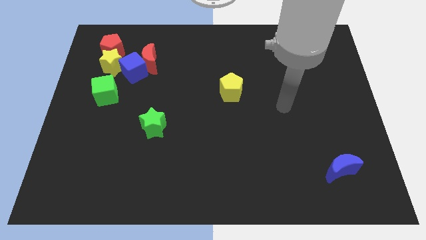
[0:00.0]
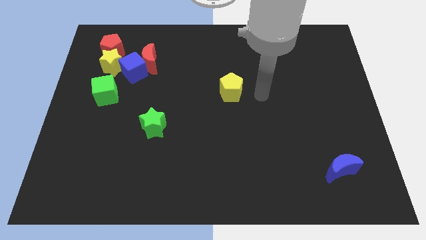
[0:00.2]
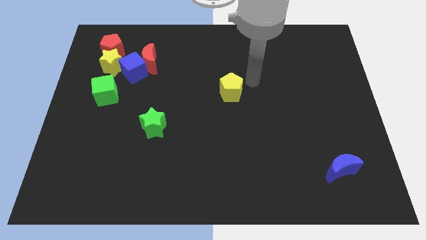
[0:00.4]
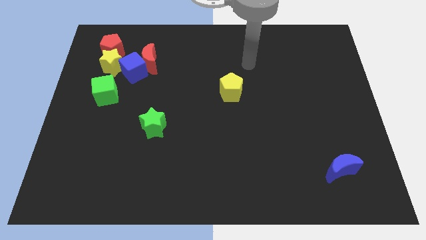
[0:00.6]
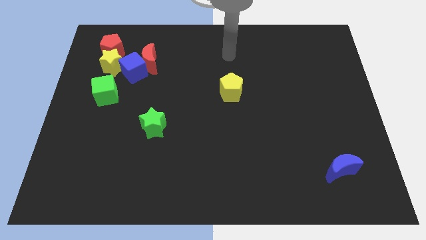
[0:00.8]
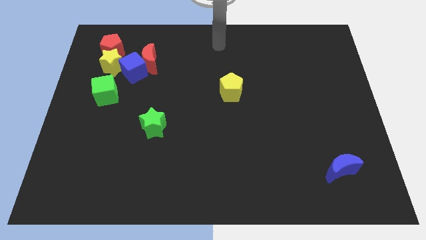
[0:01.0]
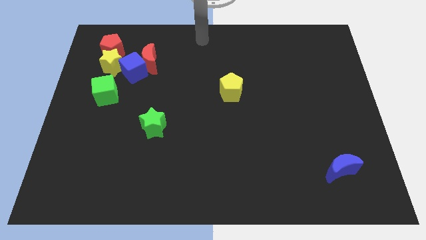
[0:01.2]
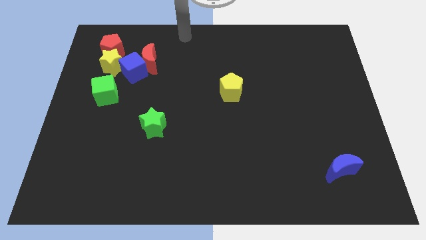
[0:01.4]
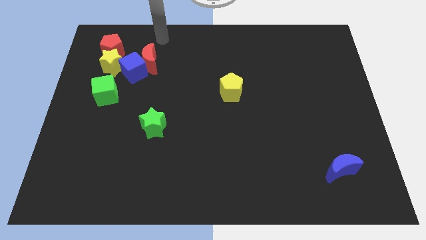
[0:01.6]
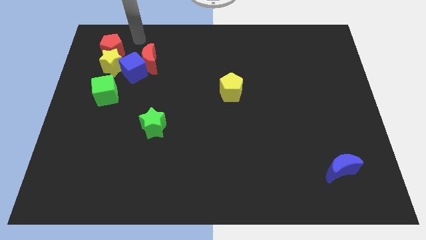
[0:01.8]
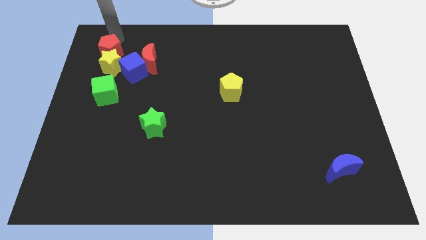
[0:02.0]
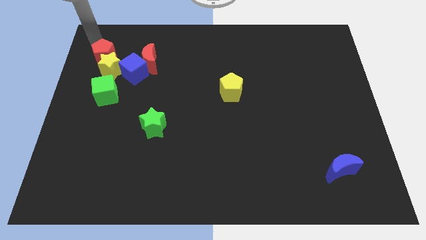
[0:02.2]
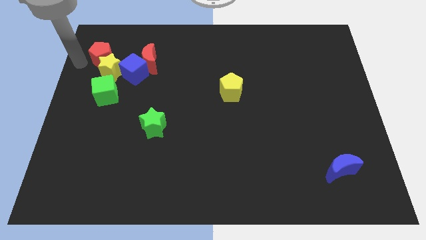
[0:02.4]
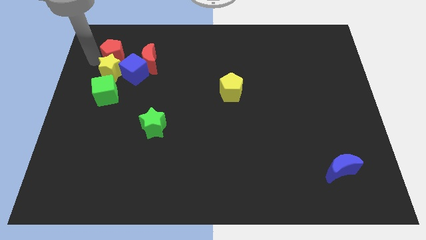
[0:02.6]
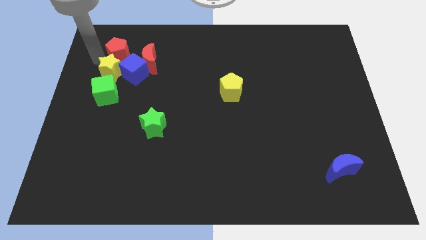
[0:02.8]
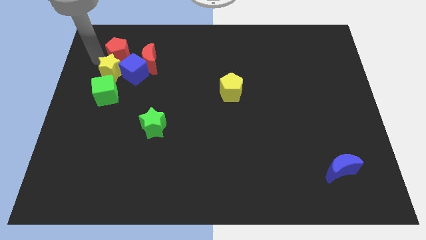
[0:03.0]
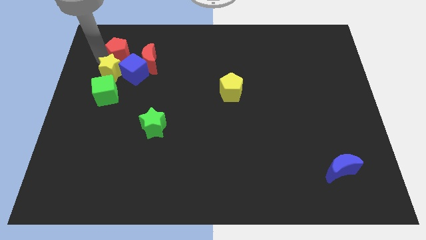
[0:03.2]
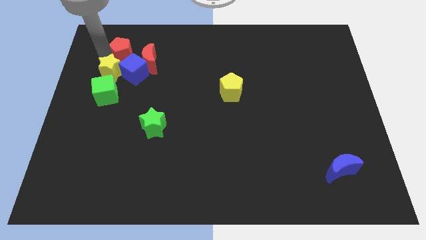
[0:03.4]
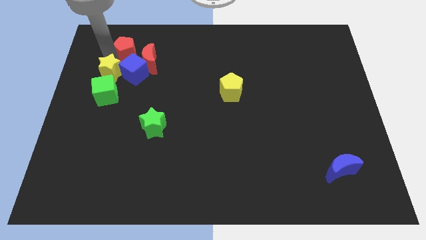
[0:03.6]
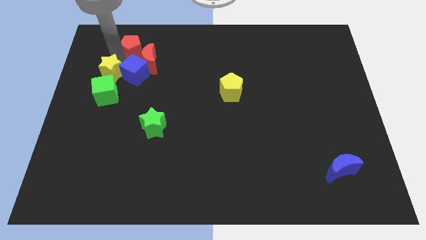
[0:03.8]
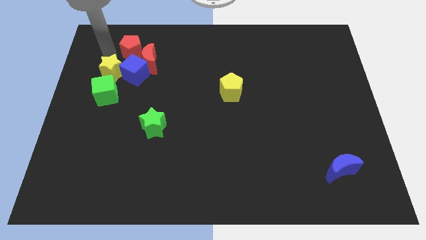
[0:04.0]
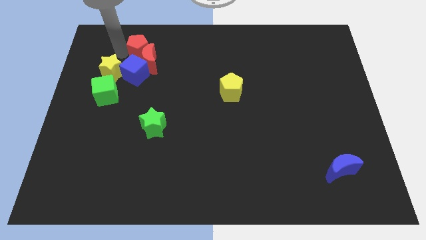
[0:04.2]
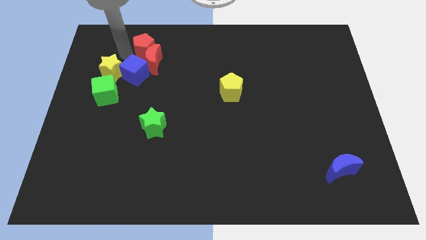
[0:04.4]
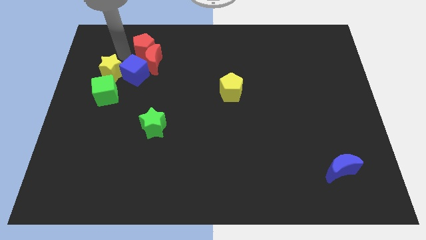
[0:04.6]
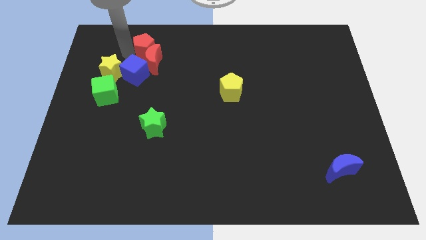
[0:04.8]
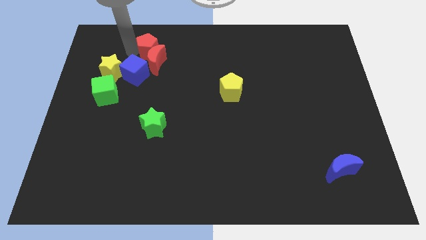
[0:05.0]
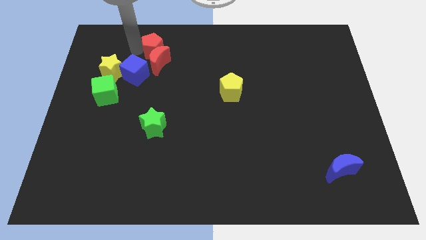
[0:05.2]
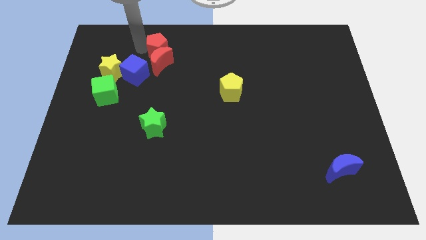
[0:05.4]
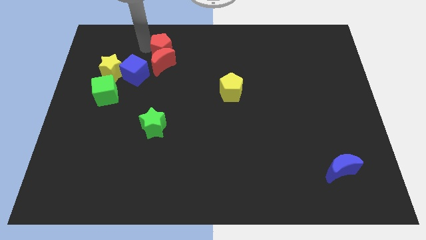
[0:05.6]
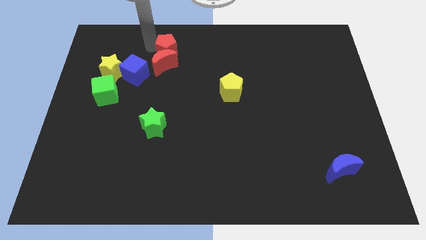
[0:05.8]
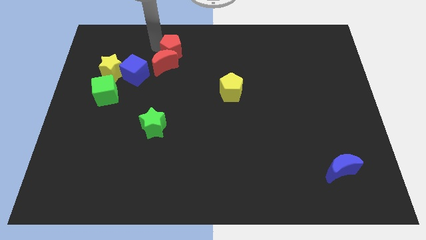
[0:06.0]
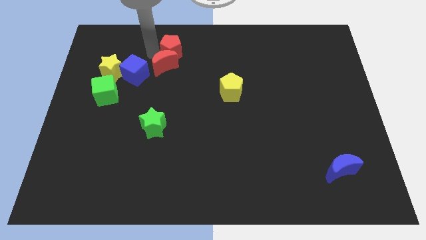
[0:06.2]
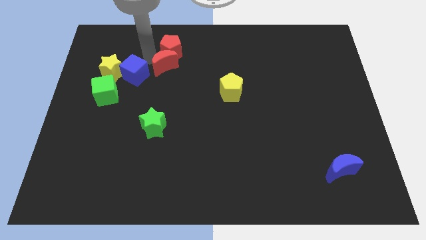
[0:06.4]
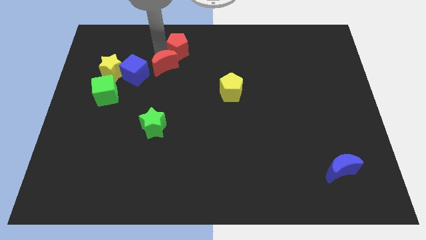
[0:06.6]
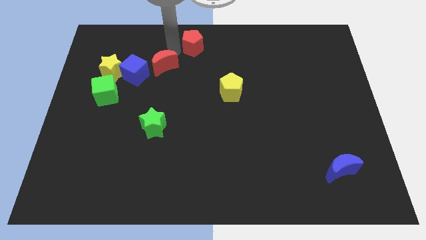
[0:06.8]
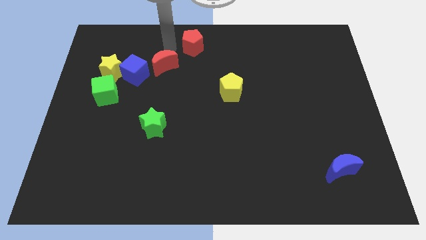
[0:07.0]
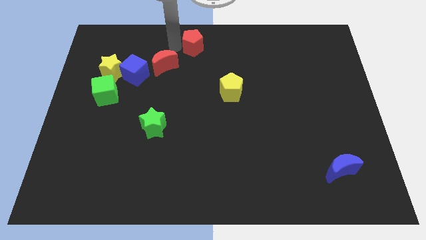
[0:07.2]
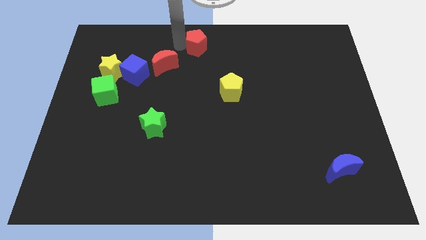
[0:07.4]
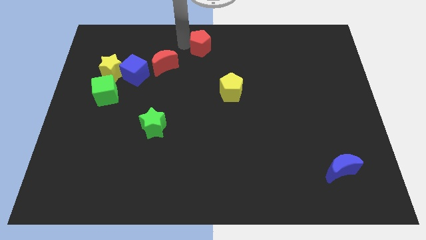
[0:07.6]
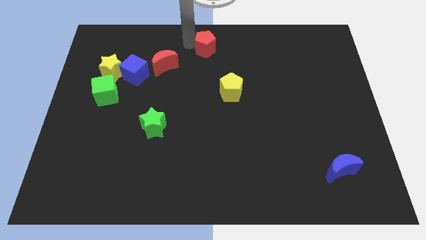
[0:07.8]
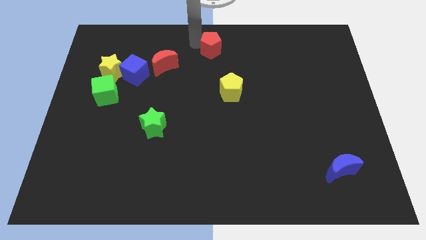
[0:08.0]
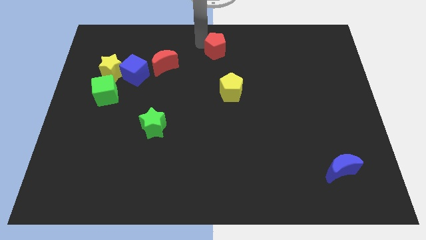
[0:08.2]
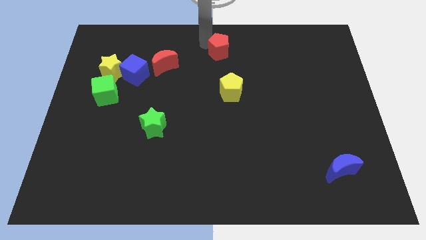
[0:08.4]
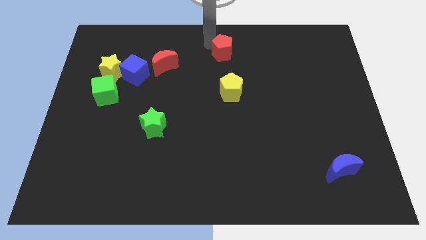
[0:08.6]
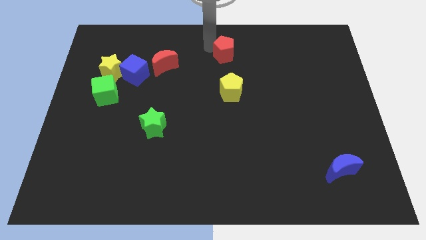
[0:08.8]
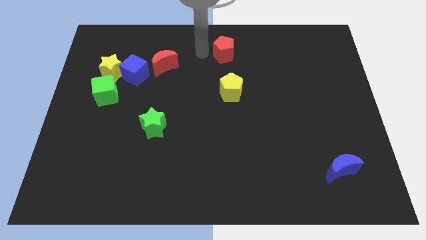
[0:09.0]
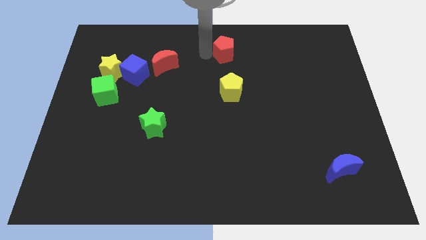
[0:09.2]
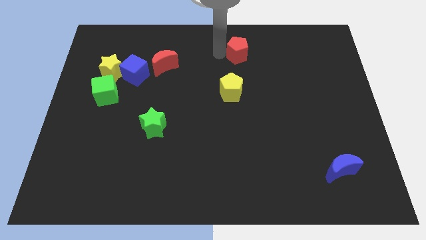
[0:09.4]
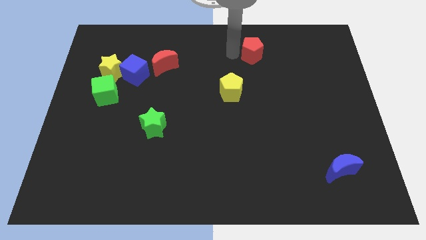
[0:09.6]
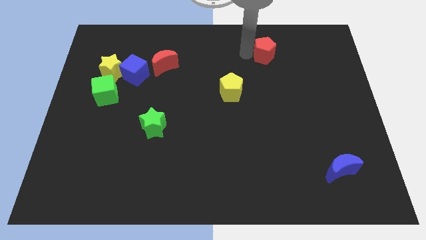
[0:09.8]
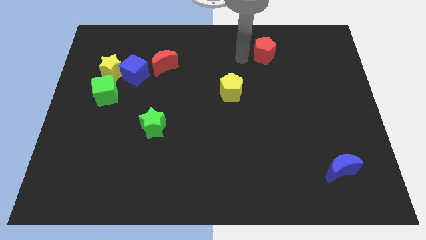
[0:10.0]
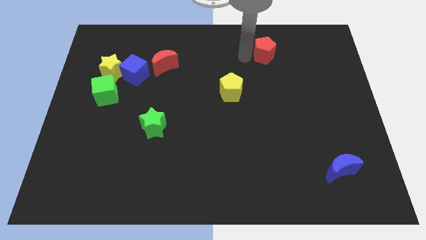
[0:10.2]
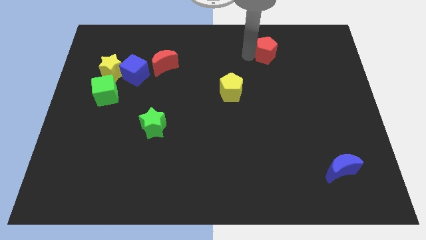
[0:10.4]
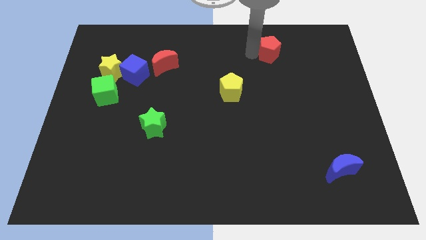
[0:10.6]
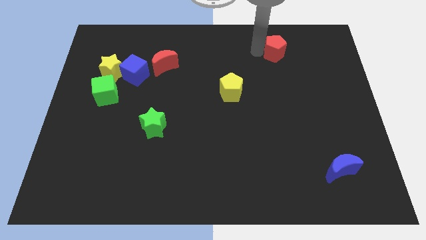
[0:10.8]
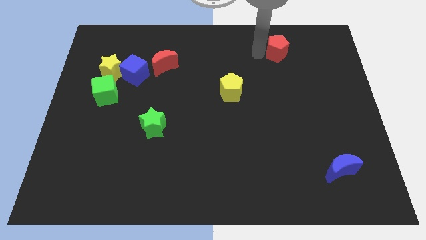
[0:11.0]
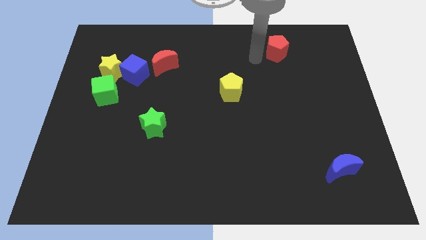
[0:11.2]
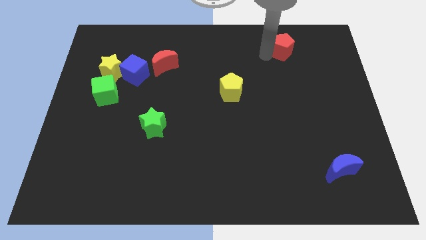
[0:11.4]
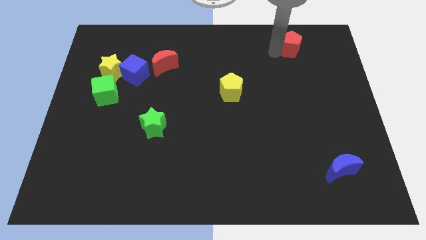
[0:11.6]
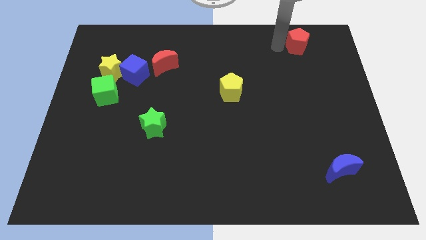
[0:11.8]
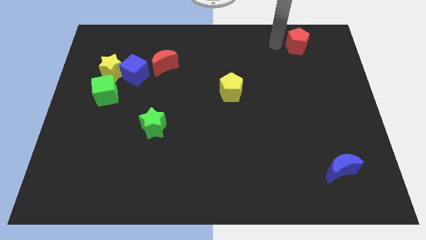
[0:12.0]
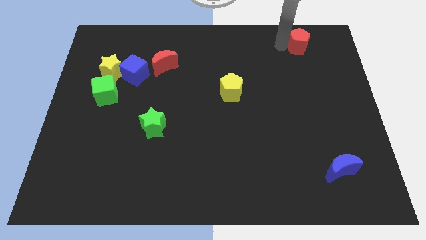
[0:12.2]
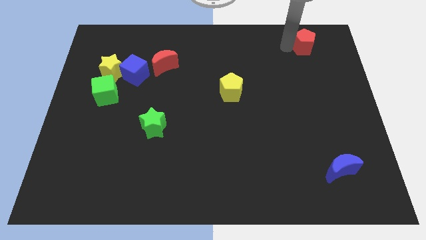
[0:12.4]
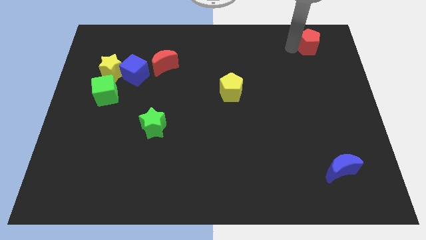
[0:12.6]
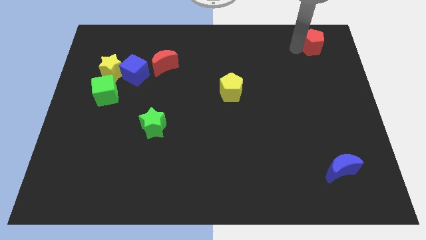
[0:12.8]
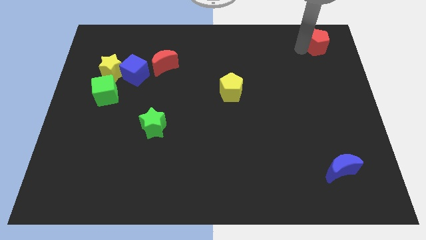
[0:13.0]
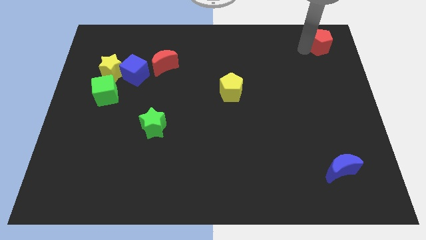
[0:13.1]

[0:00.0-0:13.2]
push the red pentagon to the upper right corner
